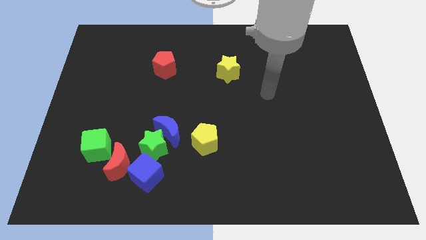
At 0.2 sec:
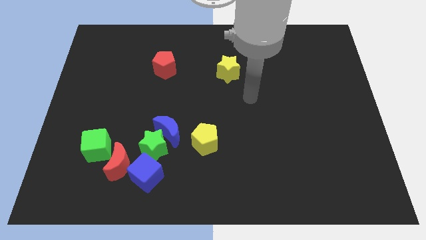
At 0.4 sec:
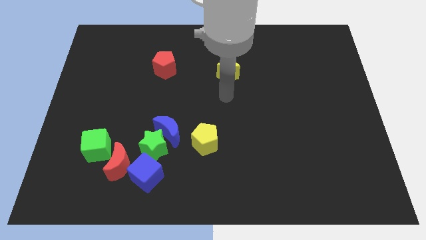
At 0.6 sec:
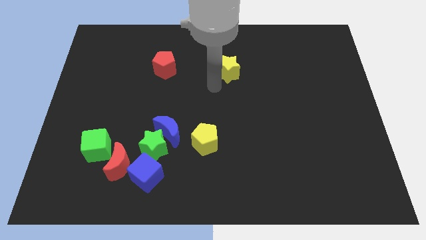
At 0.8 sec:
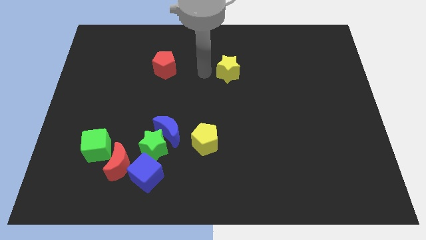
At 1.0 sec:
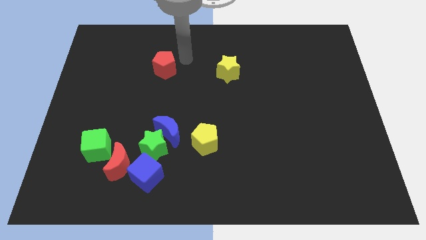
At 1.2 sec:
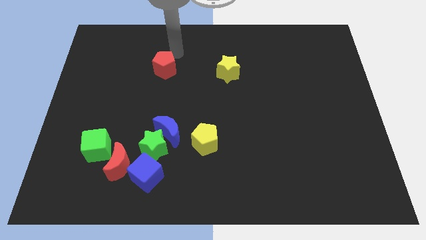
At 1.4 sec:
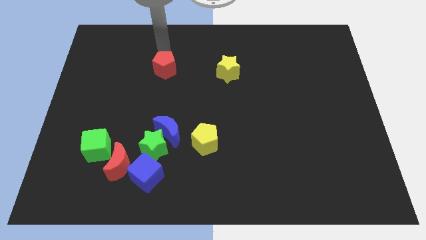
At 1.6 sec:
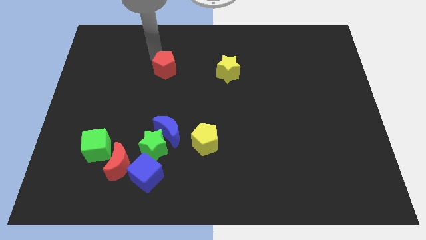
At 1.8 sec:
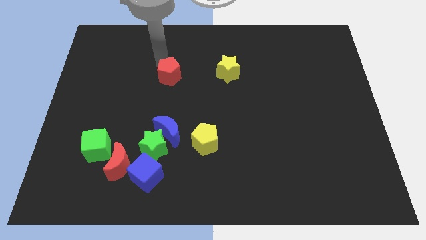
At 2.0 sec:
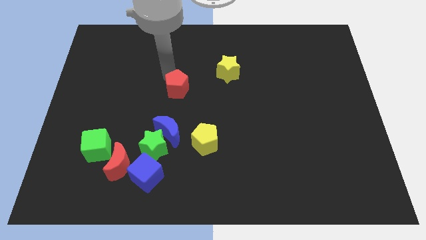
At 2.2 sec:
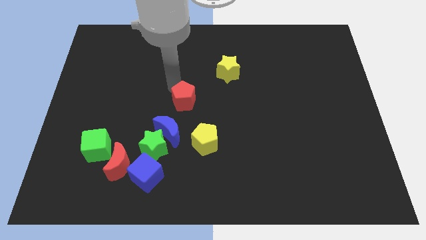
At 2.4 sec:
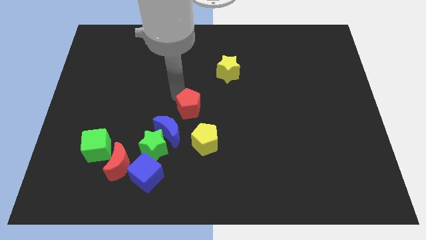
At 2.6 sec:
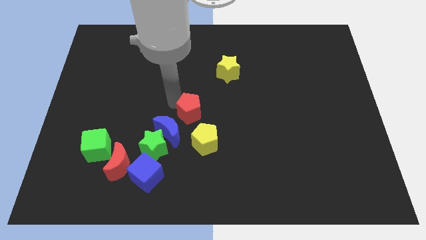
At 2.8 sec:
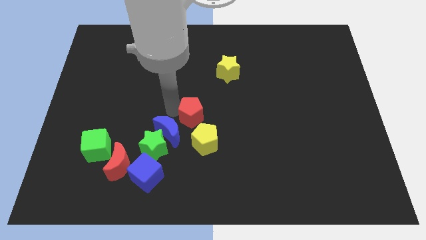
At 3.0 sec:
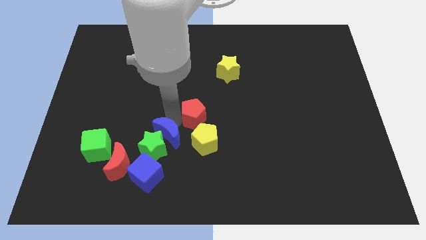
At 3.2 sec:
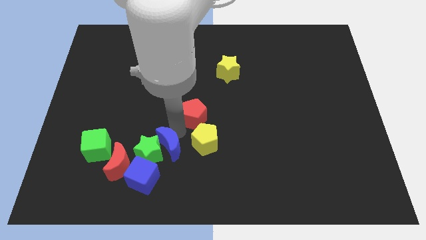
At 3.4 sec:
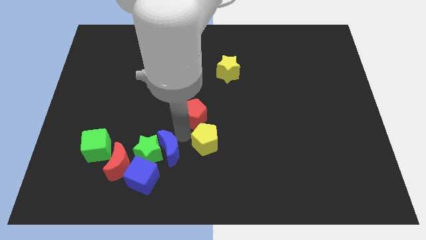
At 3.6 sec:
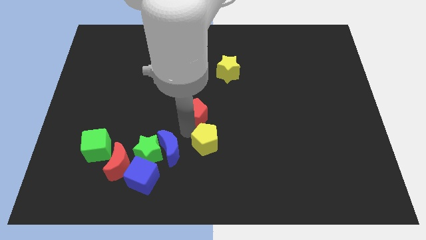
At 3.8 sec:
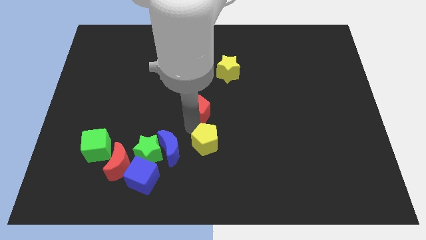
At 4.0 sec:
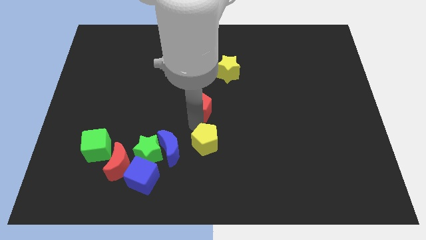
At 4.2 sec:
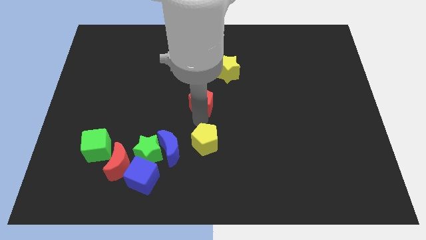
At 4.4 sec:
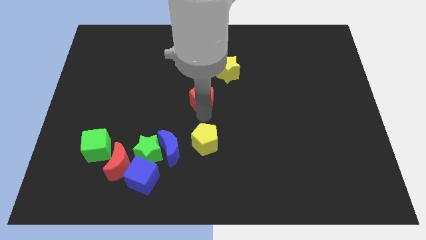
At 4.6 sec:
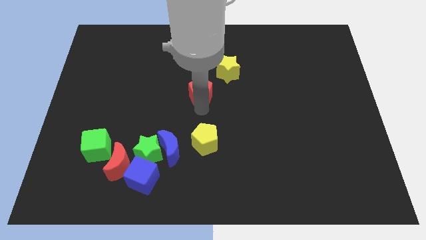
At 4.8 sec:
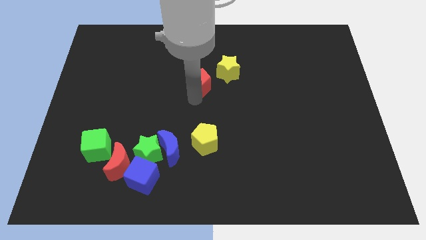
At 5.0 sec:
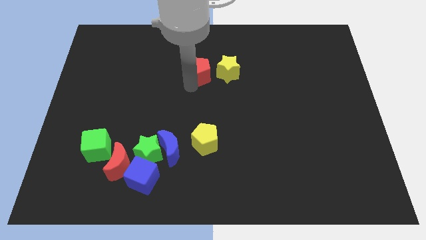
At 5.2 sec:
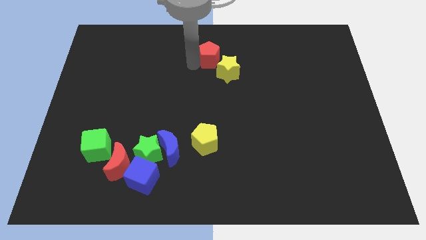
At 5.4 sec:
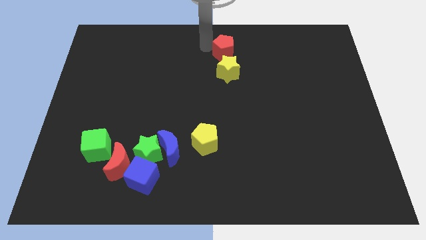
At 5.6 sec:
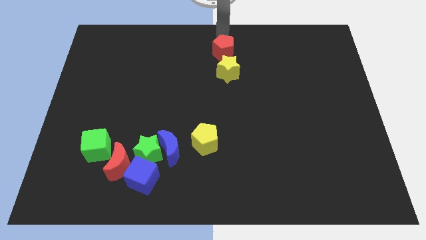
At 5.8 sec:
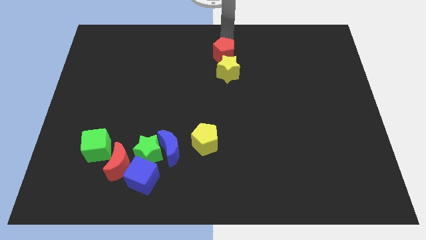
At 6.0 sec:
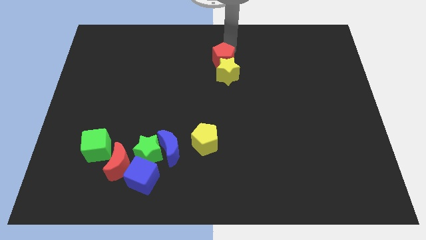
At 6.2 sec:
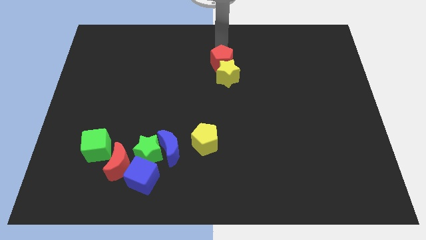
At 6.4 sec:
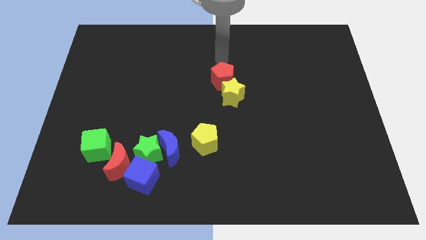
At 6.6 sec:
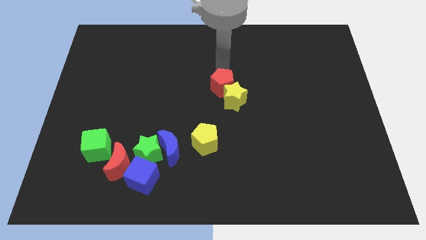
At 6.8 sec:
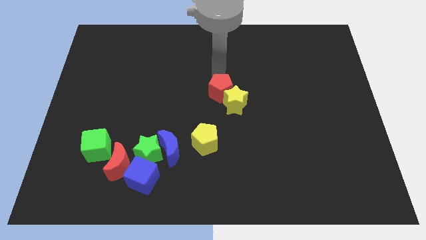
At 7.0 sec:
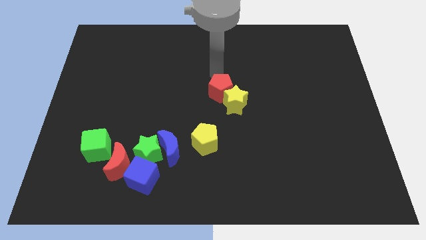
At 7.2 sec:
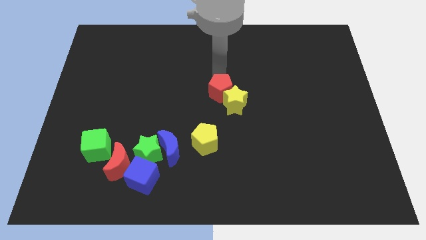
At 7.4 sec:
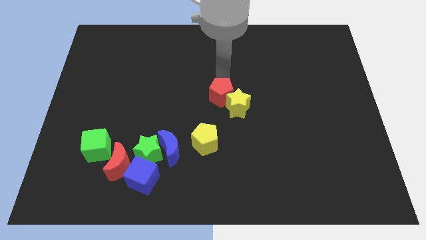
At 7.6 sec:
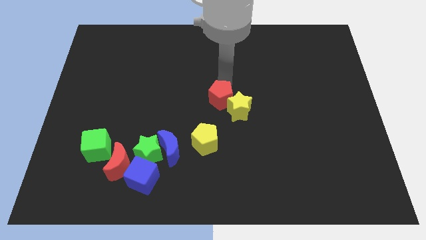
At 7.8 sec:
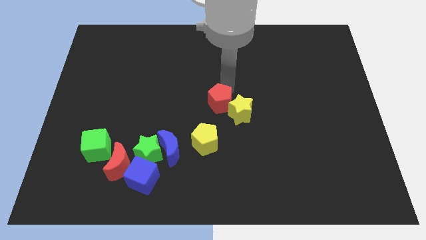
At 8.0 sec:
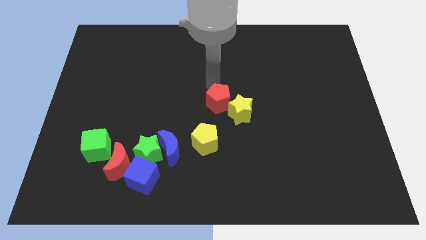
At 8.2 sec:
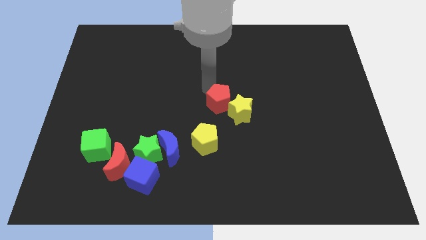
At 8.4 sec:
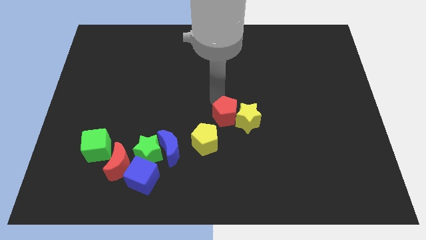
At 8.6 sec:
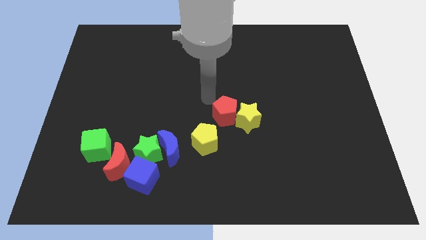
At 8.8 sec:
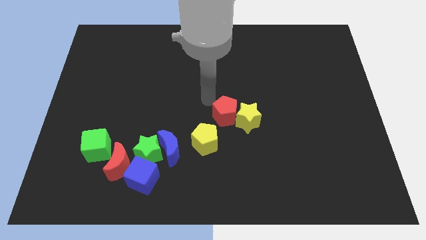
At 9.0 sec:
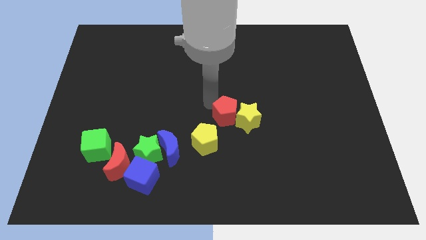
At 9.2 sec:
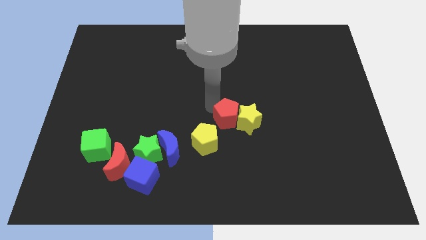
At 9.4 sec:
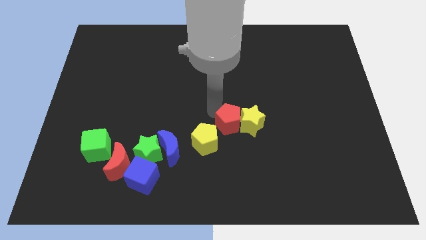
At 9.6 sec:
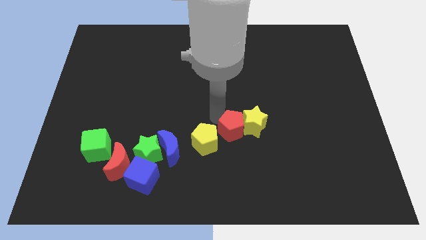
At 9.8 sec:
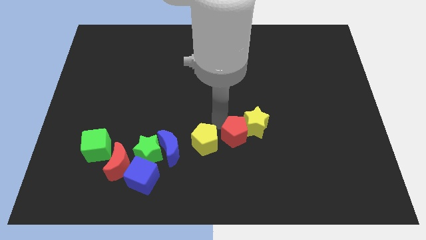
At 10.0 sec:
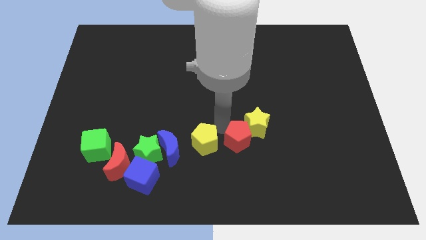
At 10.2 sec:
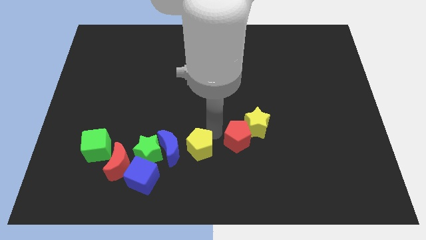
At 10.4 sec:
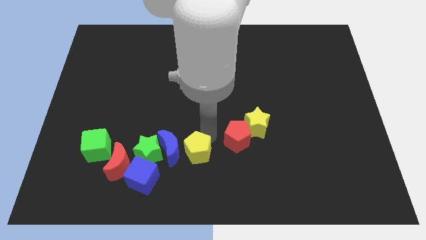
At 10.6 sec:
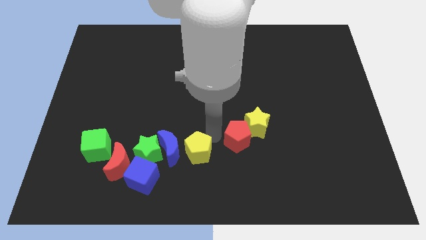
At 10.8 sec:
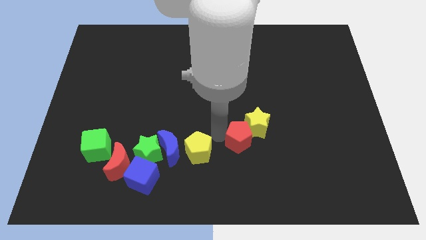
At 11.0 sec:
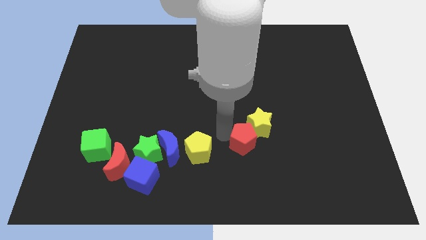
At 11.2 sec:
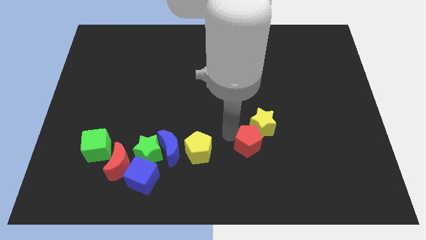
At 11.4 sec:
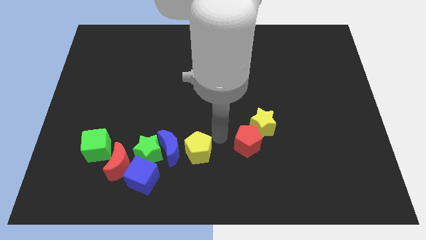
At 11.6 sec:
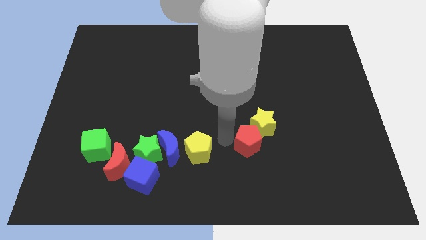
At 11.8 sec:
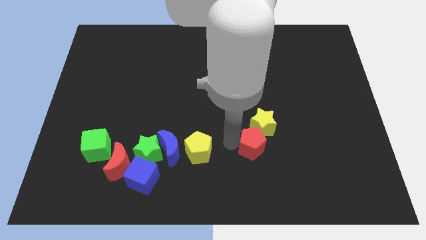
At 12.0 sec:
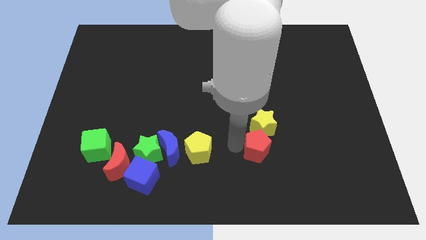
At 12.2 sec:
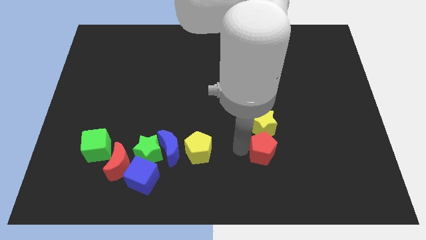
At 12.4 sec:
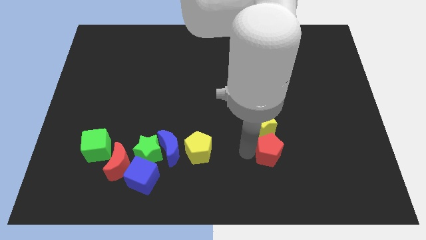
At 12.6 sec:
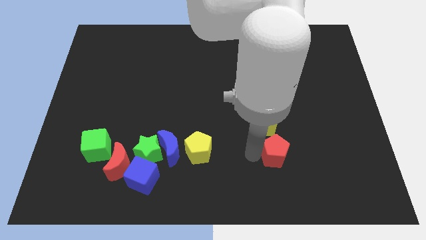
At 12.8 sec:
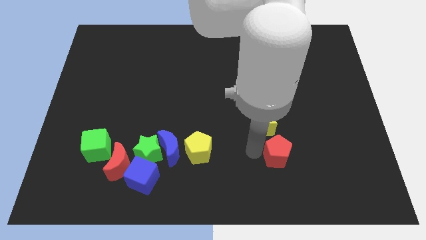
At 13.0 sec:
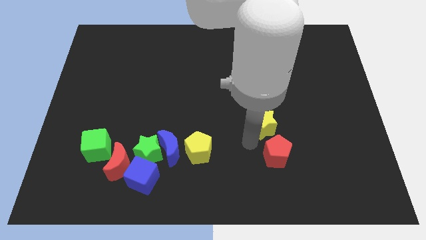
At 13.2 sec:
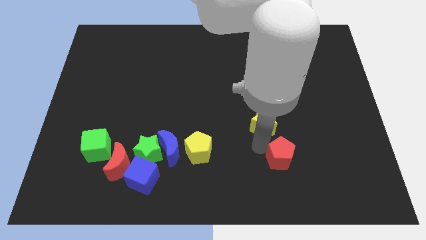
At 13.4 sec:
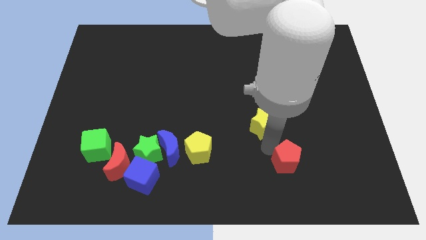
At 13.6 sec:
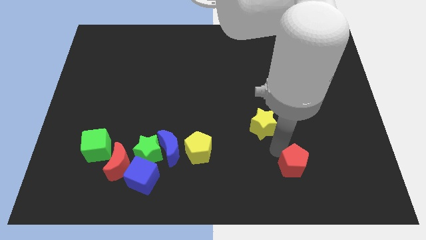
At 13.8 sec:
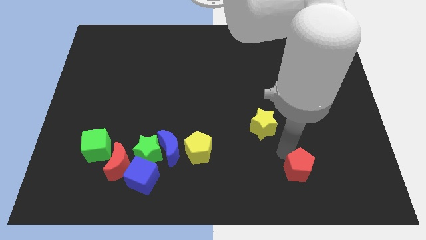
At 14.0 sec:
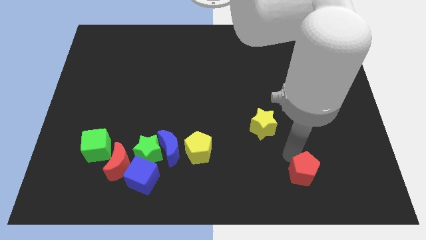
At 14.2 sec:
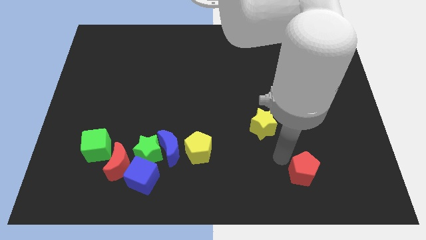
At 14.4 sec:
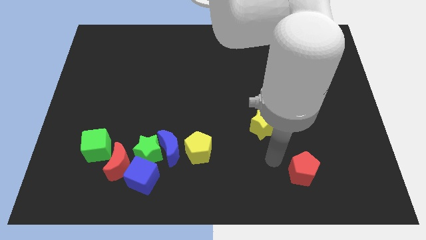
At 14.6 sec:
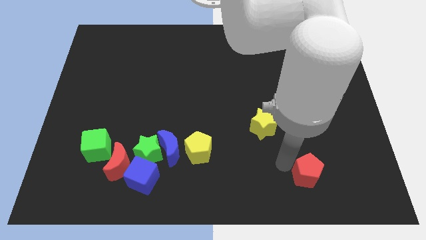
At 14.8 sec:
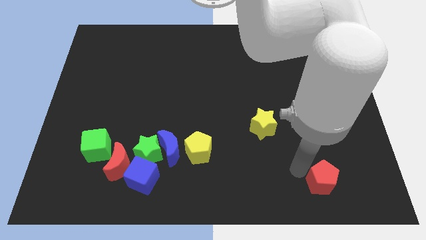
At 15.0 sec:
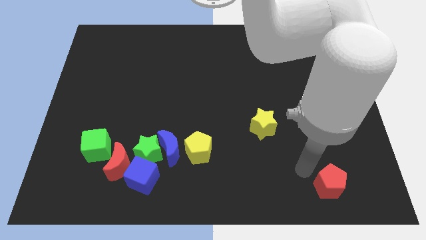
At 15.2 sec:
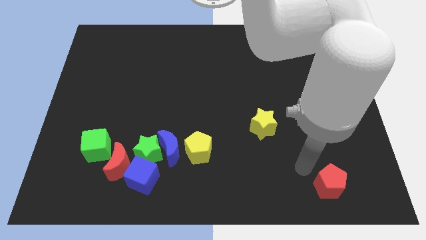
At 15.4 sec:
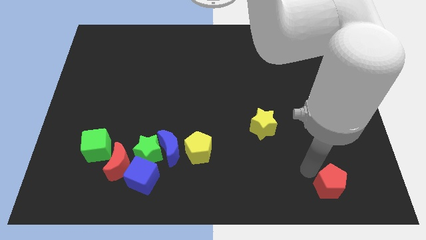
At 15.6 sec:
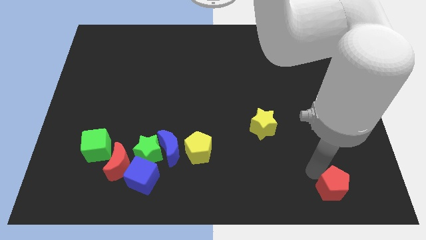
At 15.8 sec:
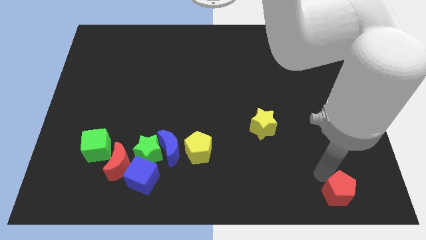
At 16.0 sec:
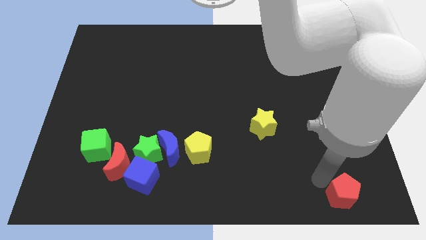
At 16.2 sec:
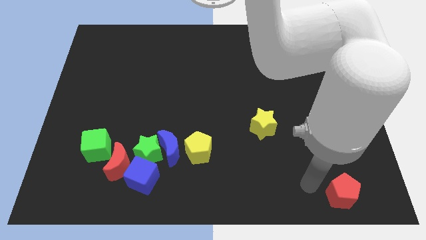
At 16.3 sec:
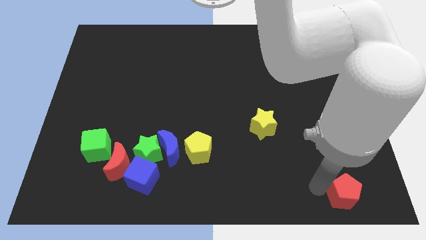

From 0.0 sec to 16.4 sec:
move the red pentagon to the bottom right of the board
